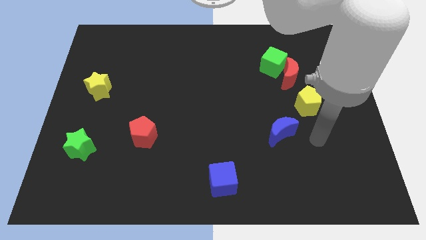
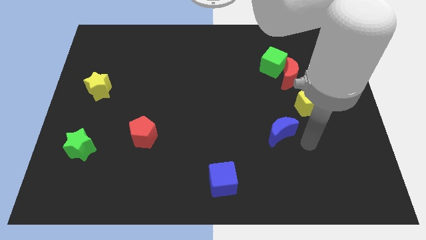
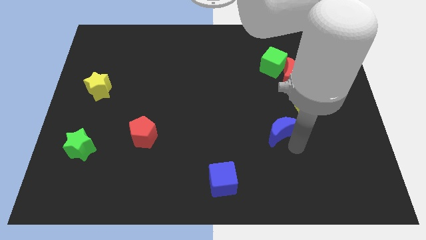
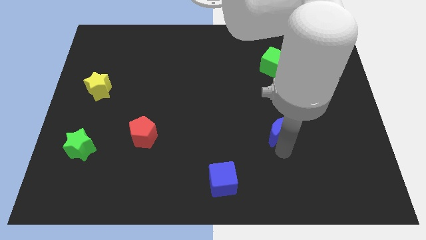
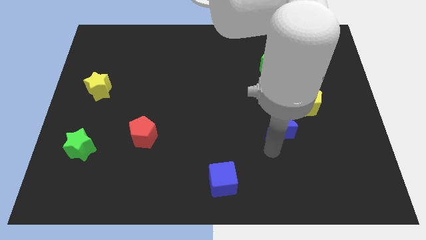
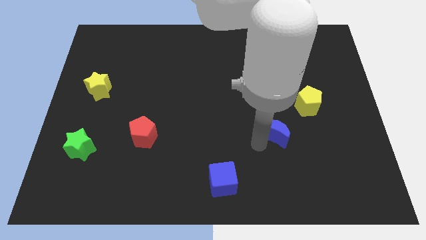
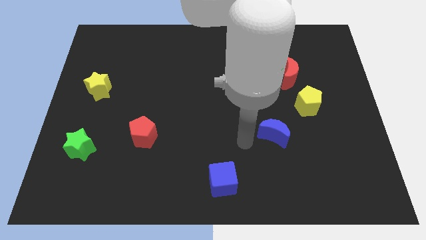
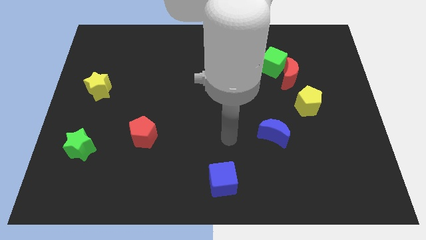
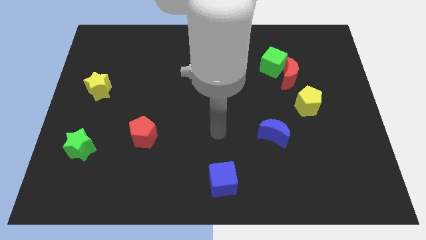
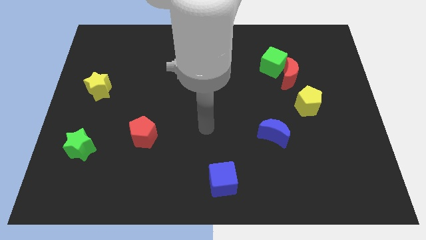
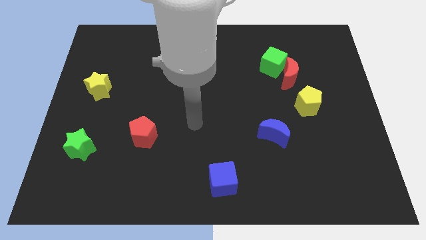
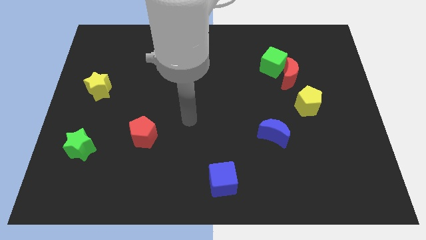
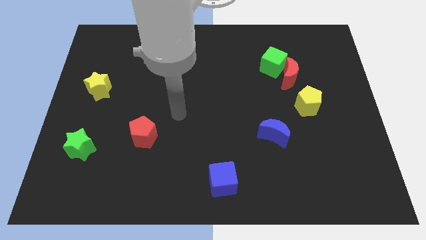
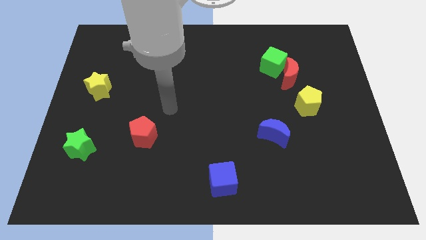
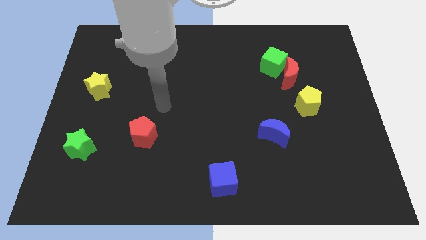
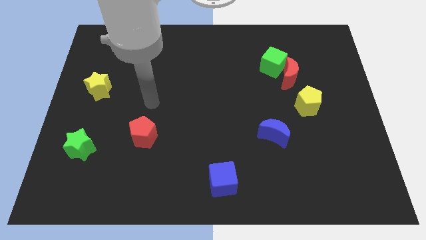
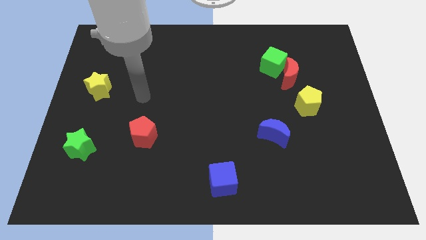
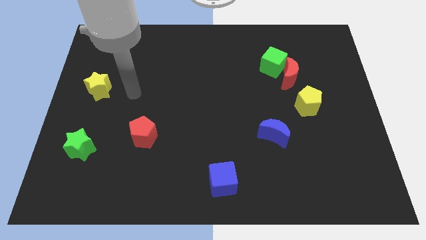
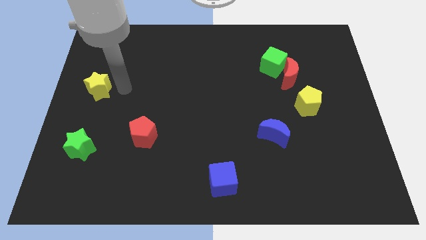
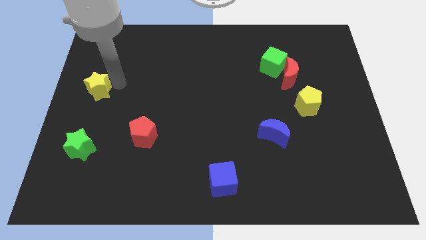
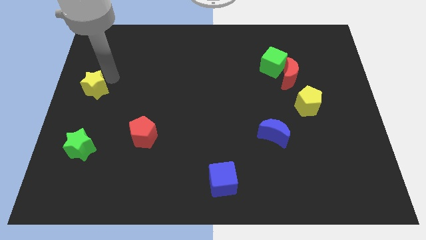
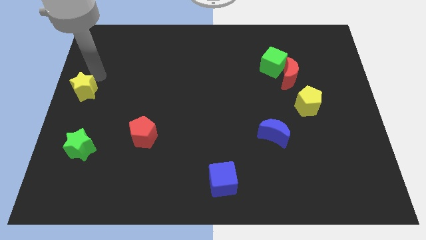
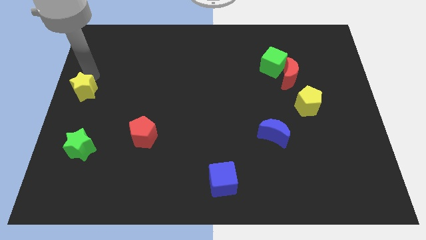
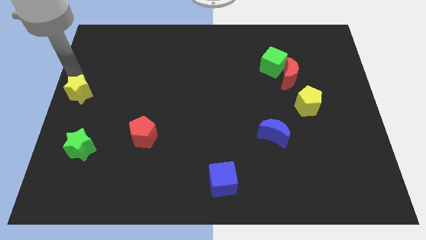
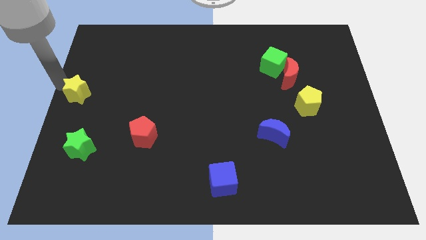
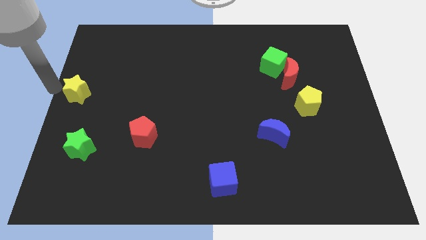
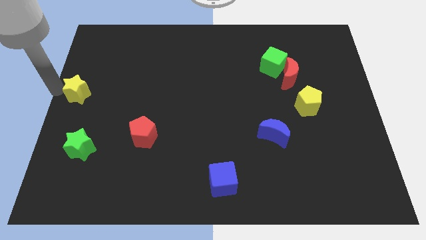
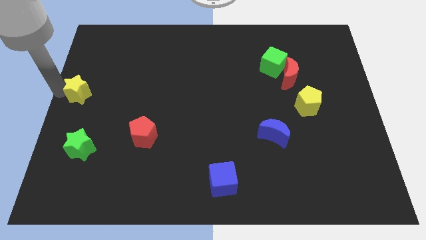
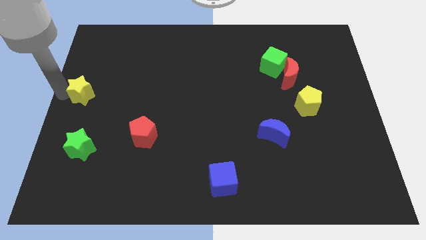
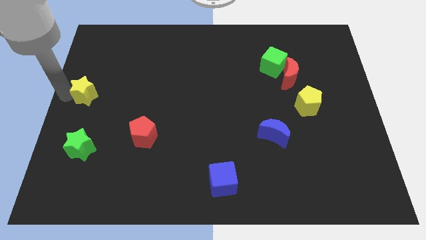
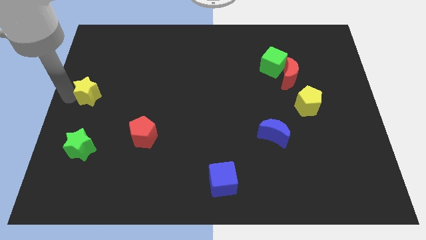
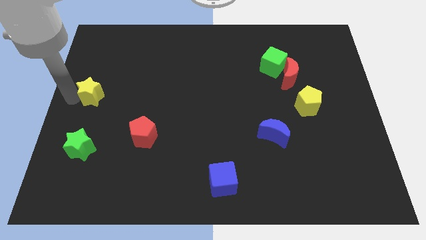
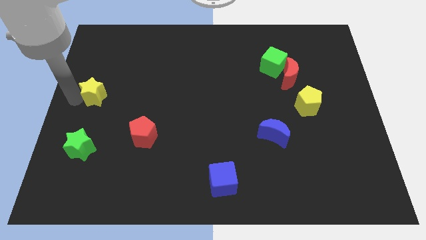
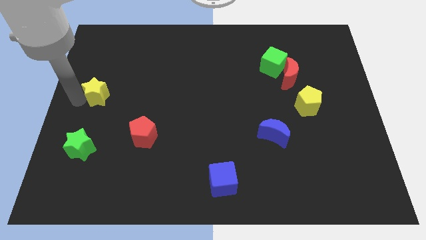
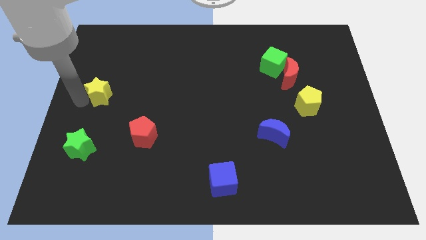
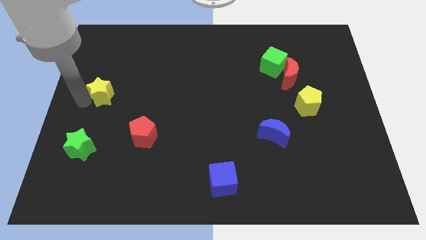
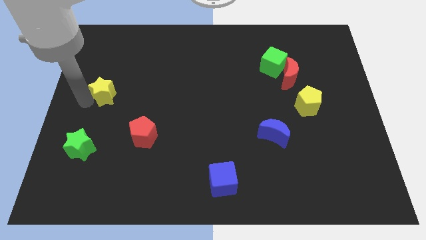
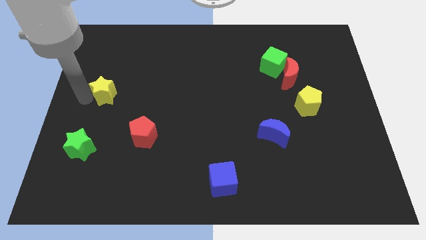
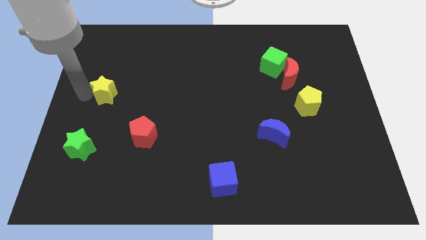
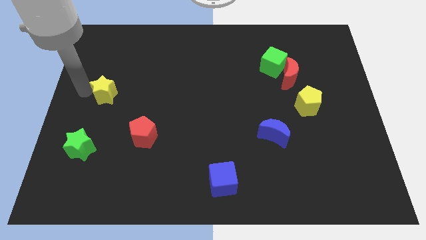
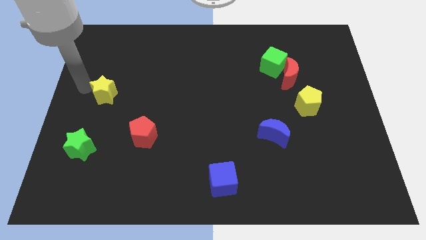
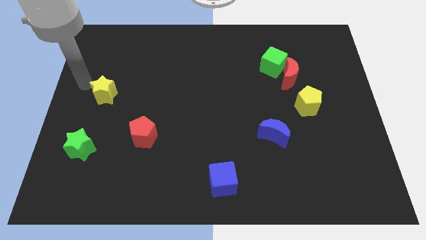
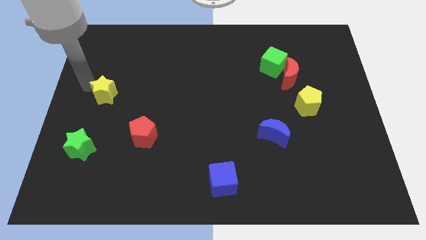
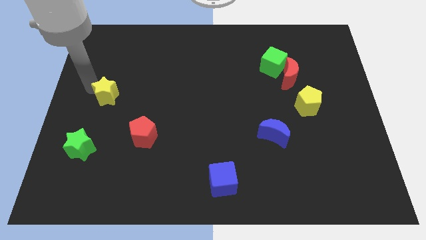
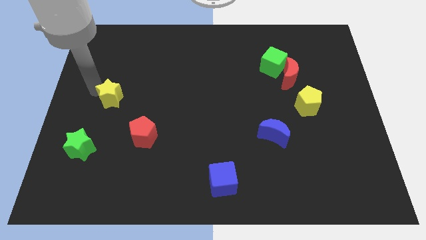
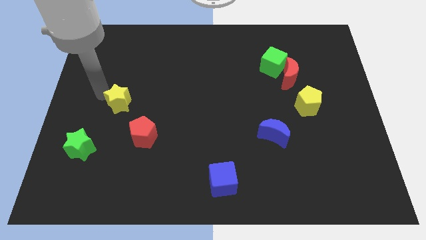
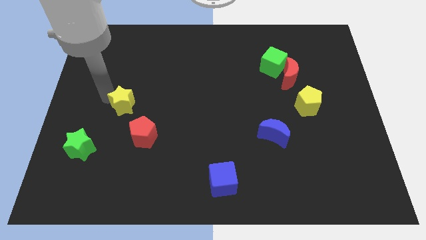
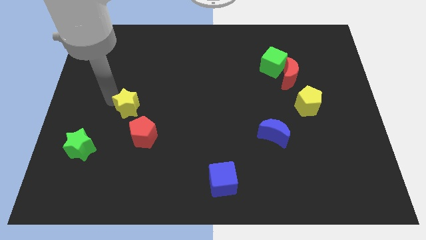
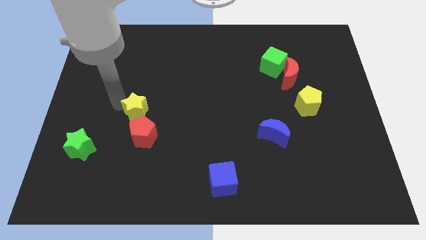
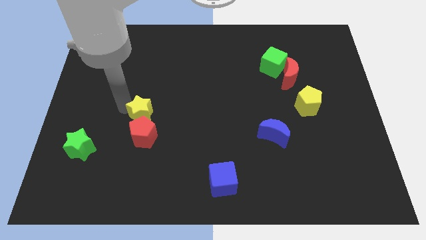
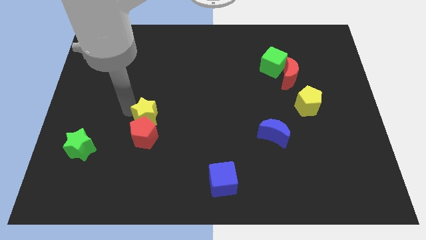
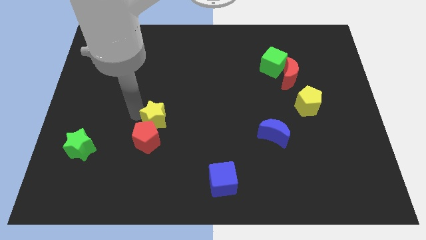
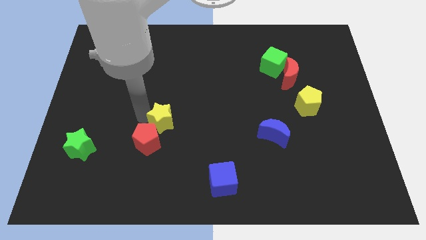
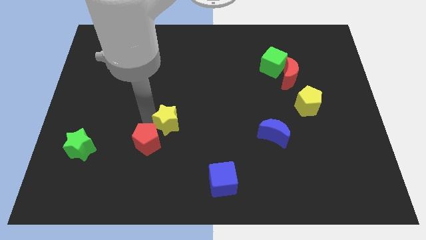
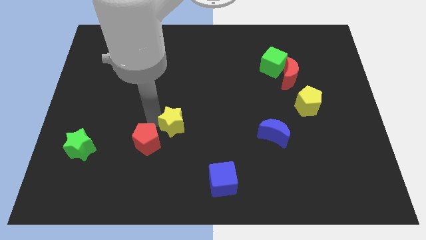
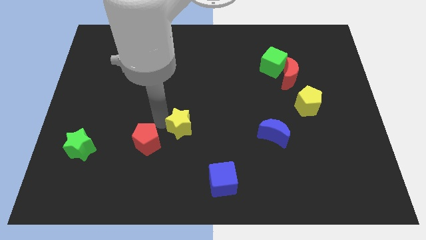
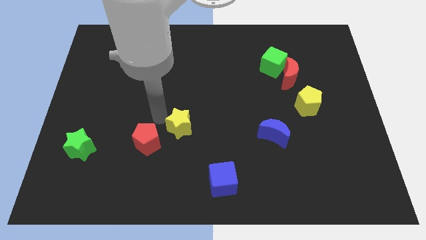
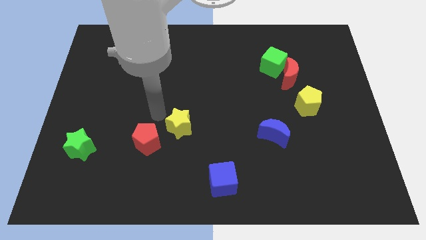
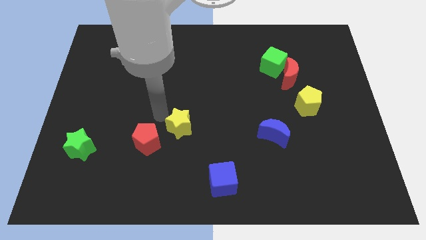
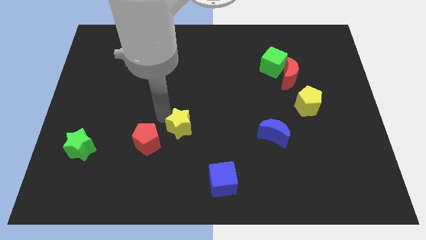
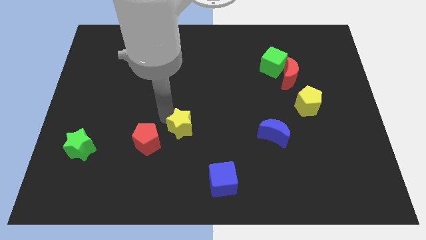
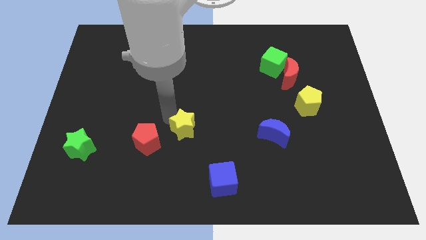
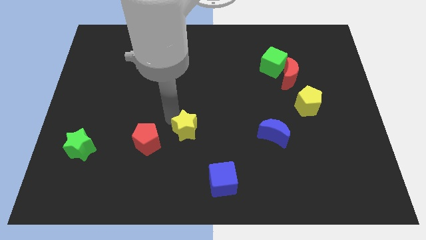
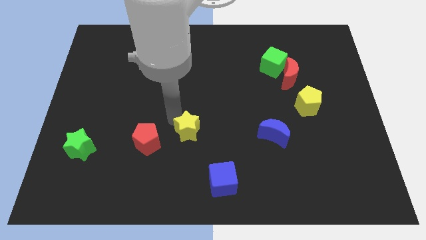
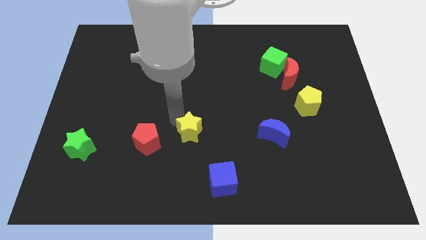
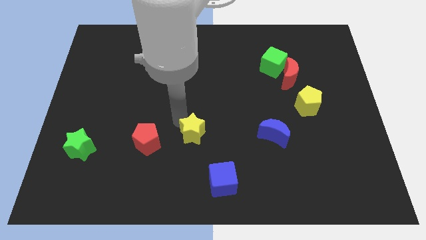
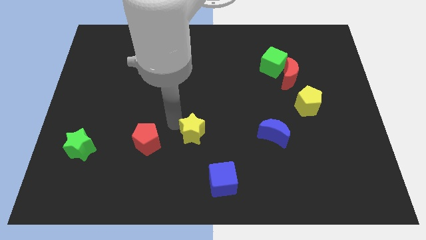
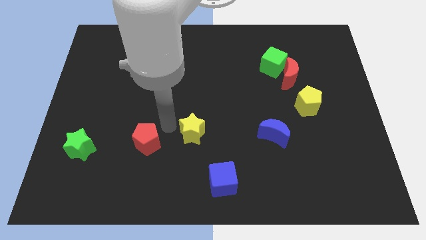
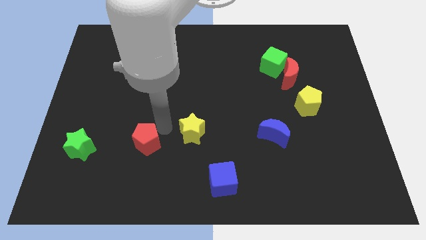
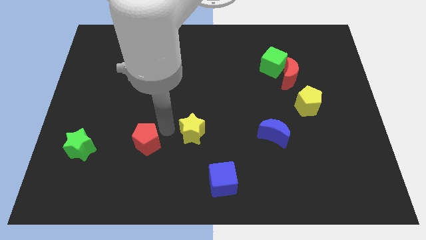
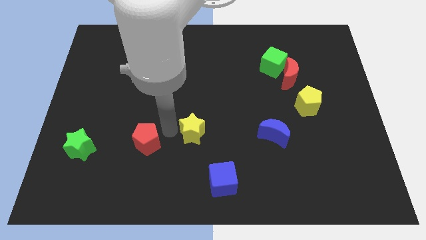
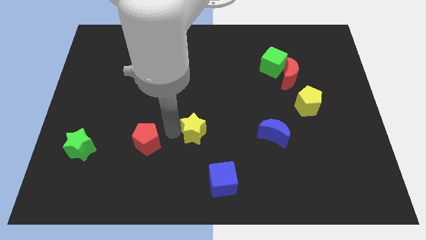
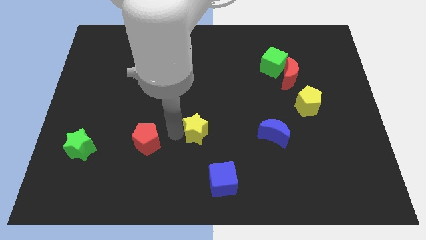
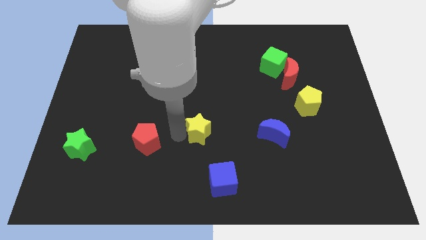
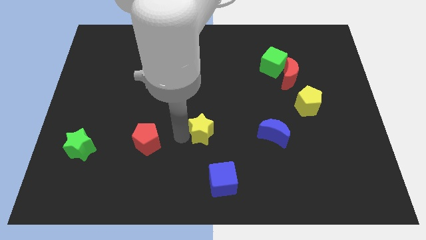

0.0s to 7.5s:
push the yellow star to the top of the blue cube
